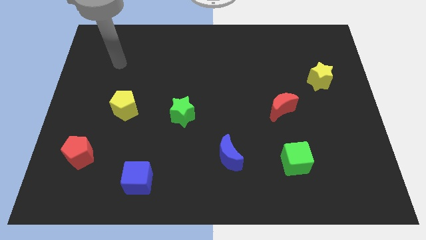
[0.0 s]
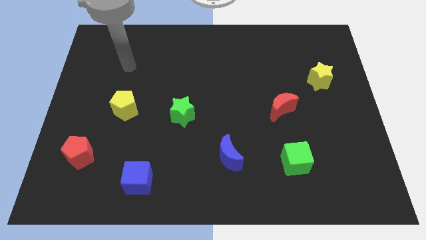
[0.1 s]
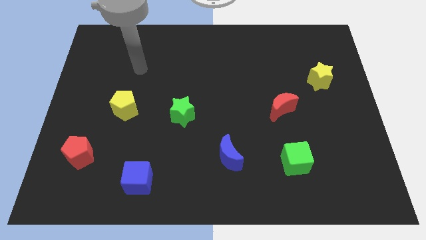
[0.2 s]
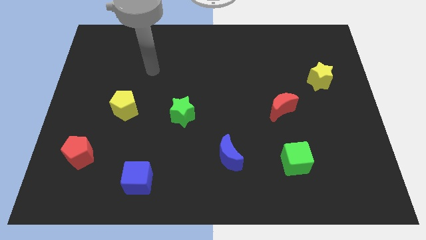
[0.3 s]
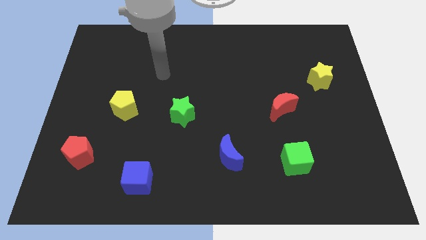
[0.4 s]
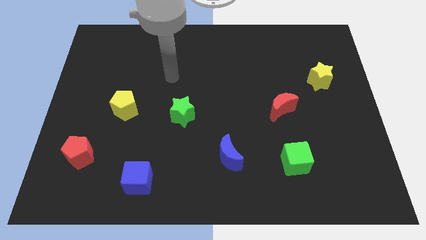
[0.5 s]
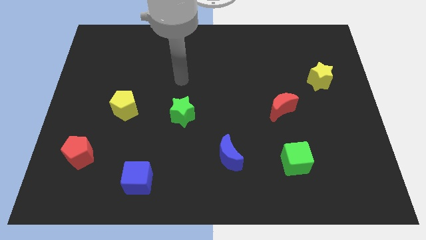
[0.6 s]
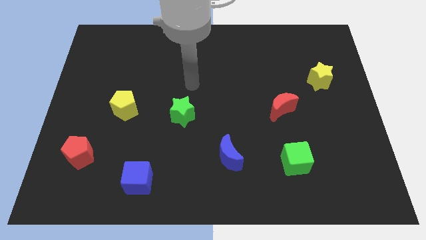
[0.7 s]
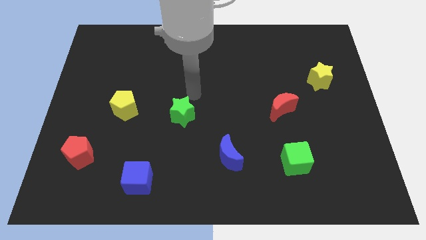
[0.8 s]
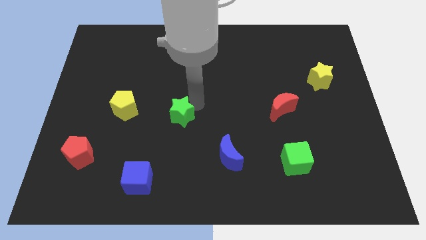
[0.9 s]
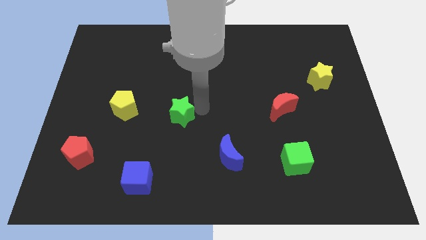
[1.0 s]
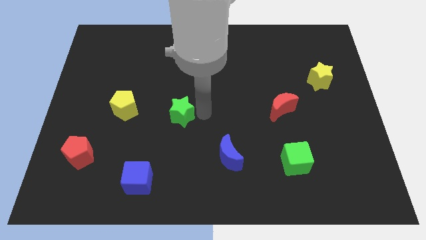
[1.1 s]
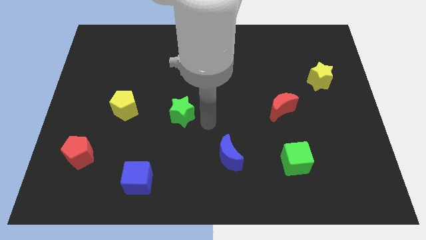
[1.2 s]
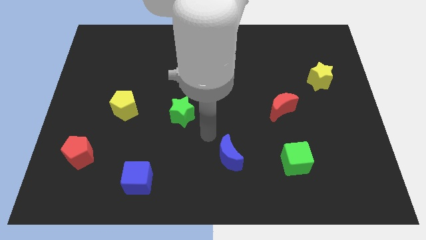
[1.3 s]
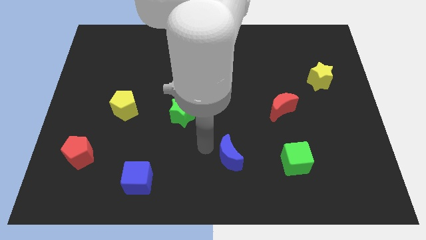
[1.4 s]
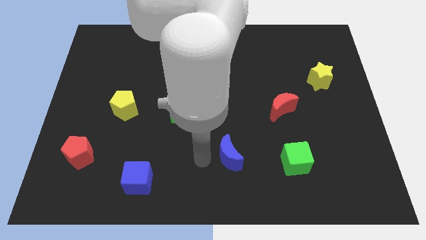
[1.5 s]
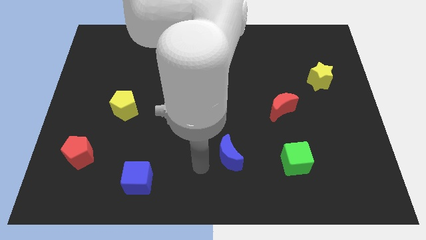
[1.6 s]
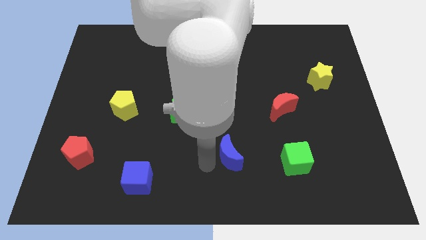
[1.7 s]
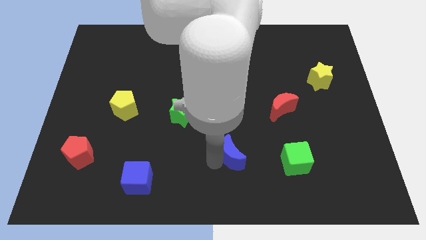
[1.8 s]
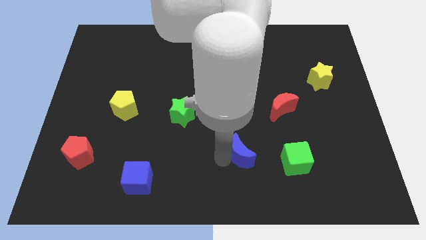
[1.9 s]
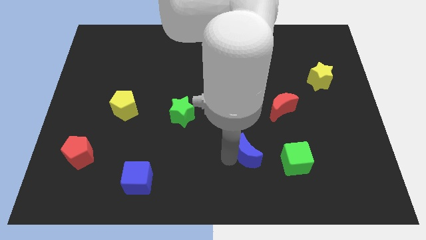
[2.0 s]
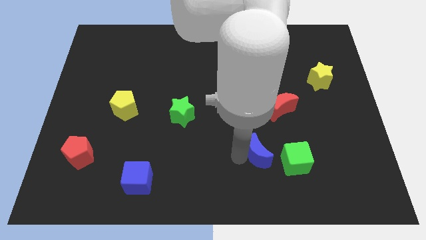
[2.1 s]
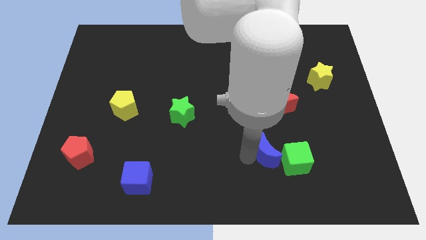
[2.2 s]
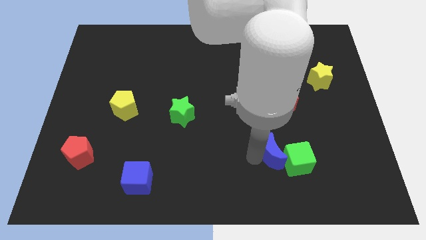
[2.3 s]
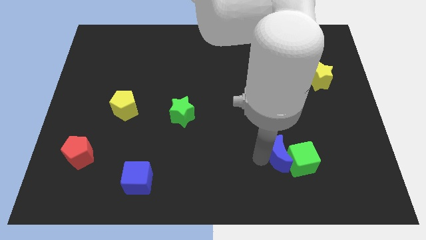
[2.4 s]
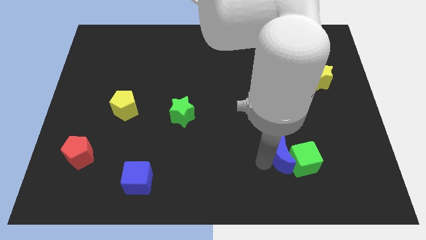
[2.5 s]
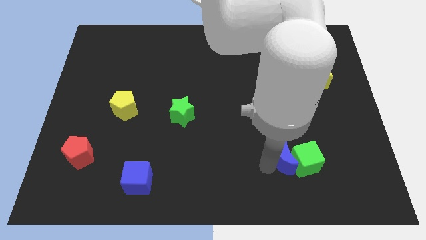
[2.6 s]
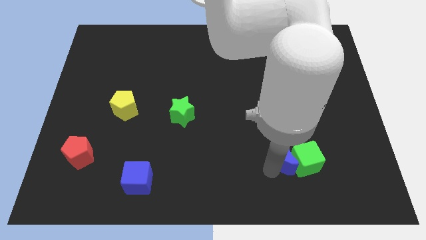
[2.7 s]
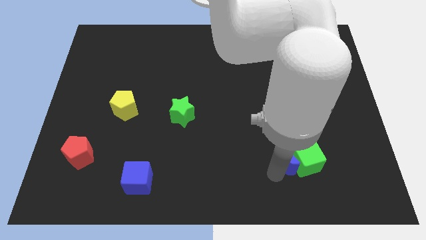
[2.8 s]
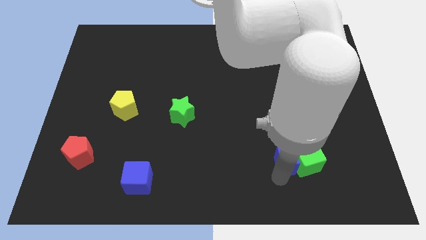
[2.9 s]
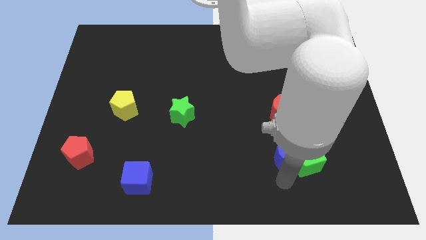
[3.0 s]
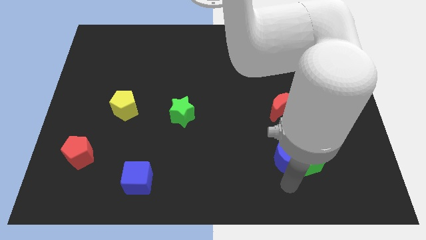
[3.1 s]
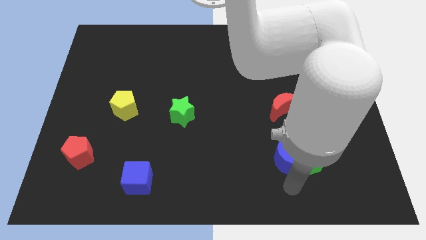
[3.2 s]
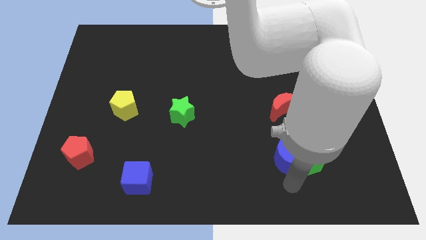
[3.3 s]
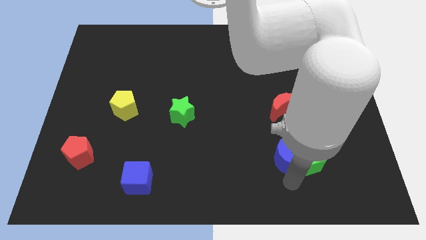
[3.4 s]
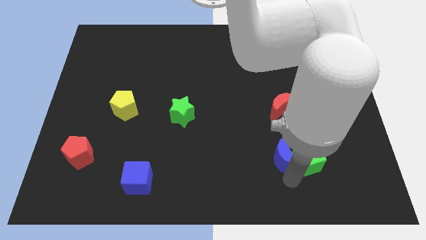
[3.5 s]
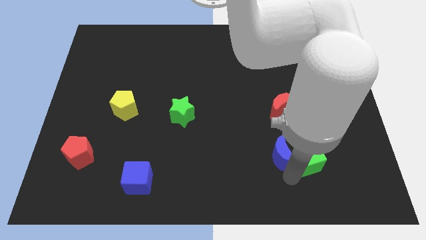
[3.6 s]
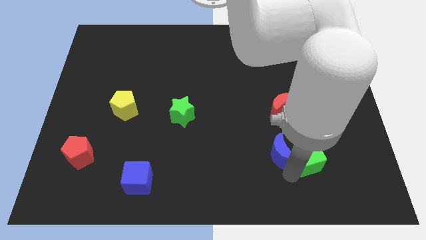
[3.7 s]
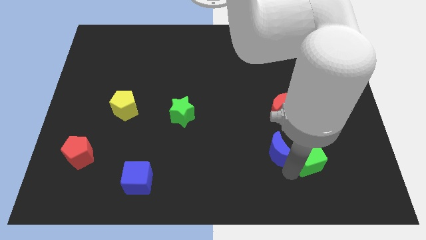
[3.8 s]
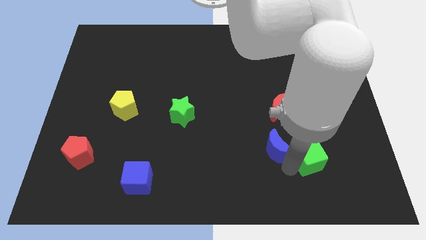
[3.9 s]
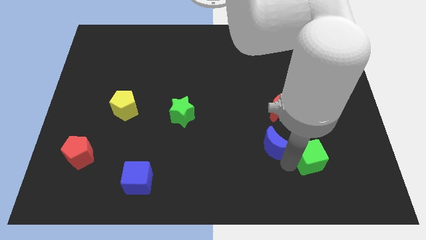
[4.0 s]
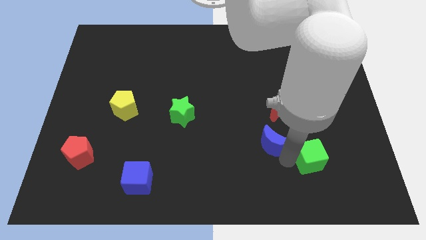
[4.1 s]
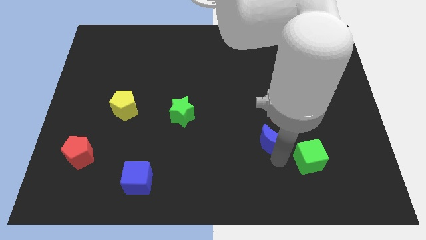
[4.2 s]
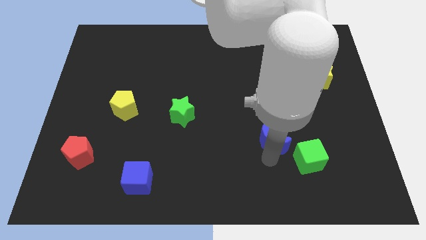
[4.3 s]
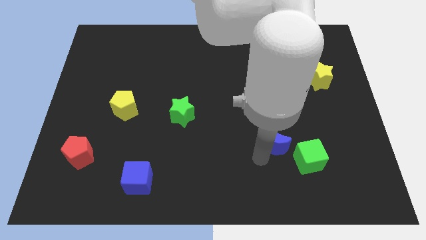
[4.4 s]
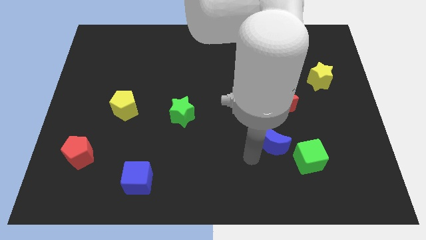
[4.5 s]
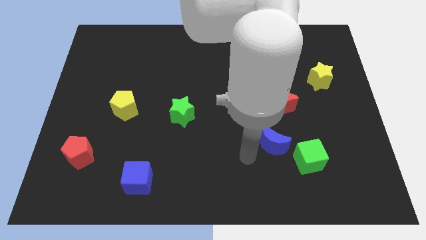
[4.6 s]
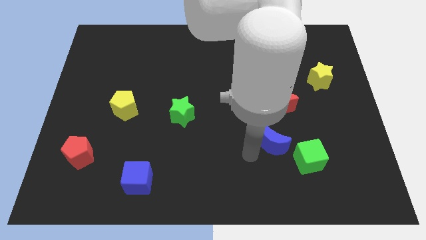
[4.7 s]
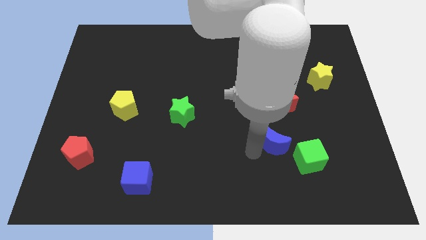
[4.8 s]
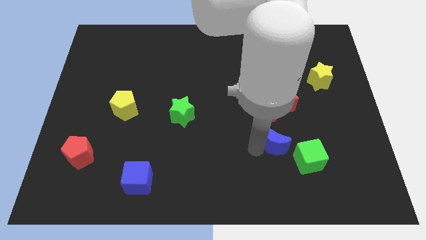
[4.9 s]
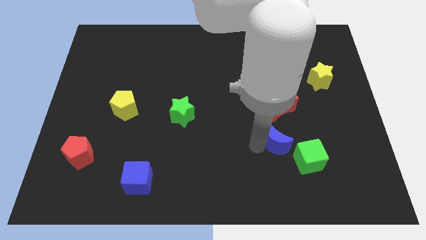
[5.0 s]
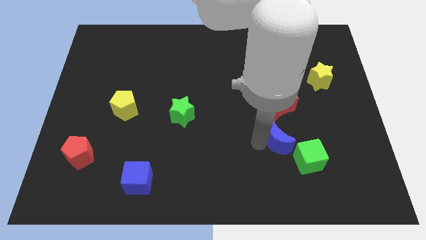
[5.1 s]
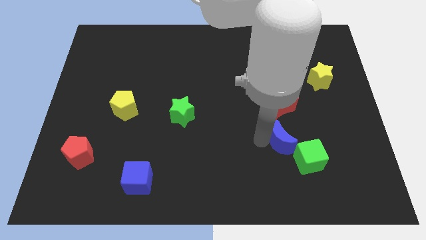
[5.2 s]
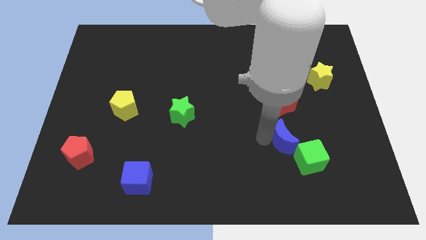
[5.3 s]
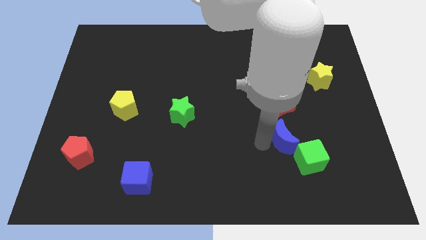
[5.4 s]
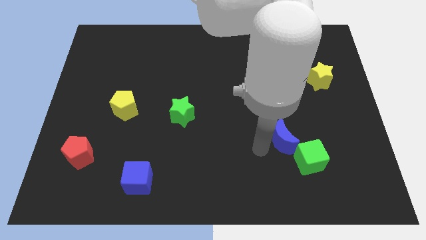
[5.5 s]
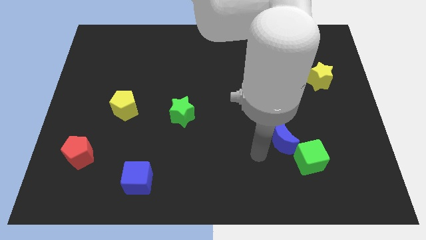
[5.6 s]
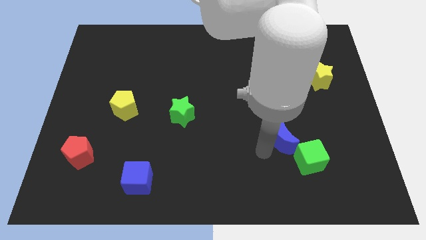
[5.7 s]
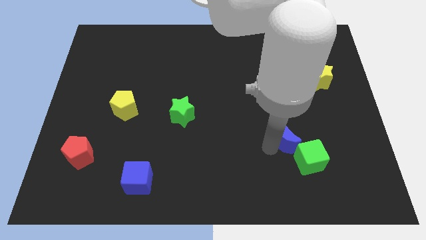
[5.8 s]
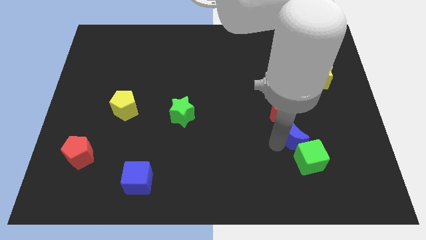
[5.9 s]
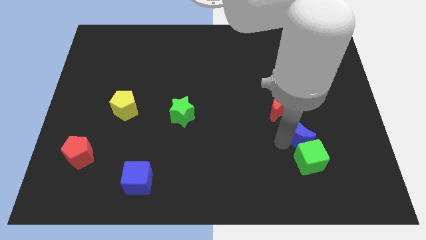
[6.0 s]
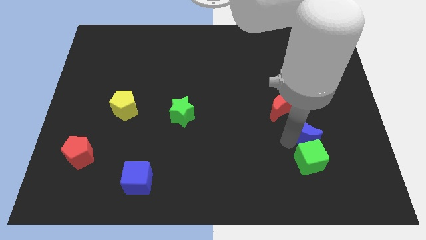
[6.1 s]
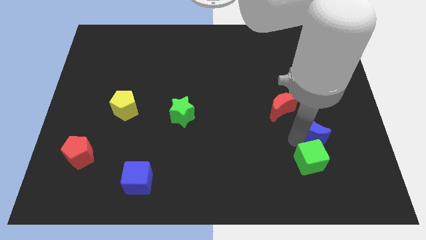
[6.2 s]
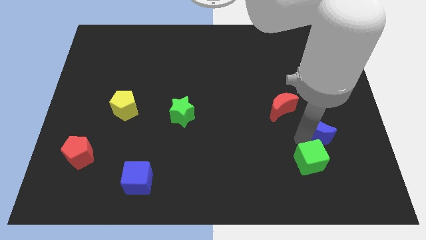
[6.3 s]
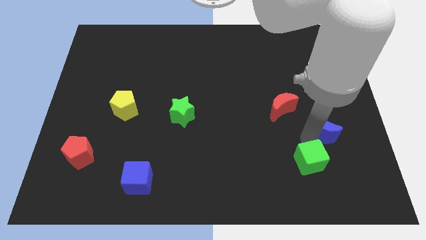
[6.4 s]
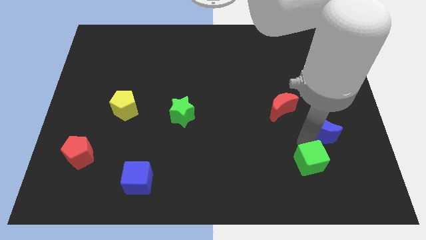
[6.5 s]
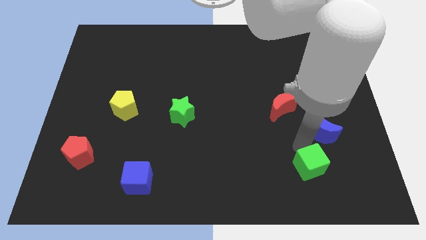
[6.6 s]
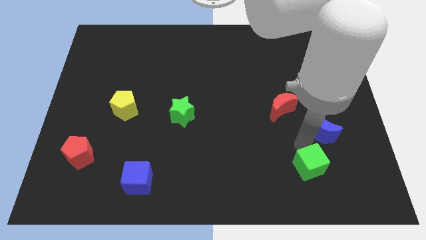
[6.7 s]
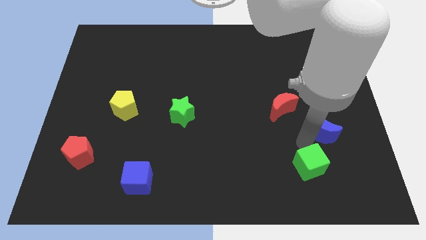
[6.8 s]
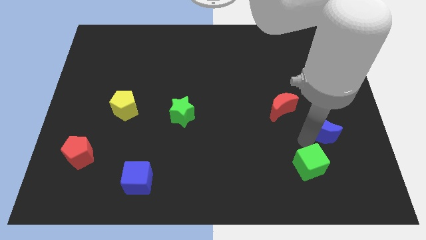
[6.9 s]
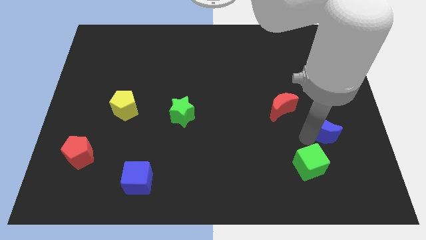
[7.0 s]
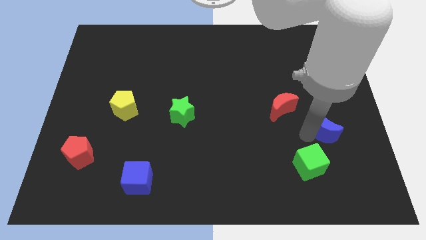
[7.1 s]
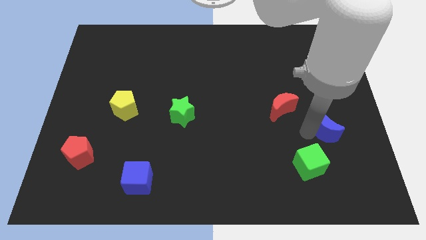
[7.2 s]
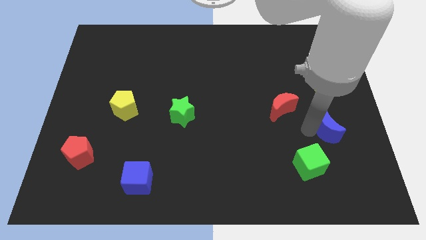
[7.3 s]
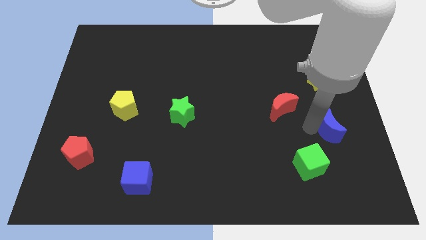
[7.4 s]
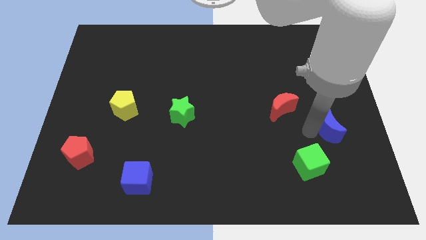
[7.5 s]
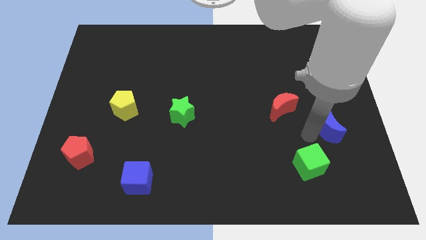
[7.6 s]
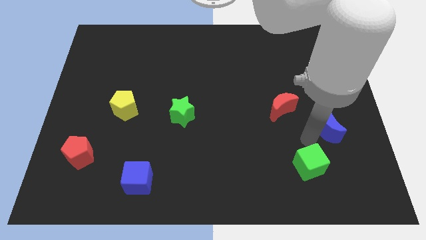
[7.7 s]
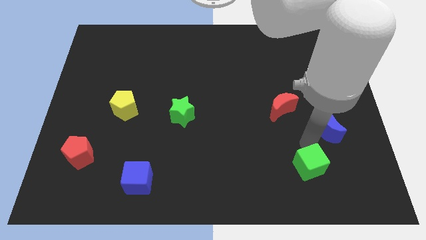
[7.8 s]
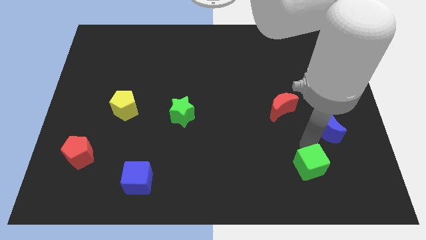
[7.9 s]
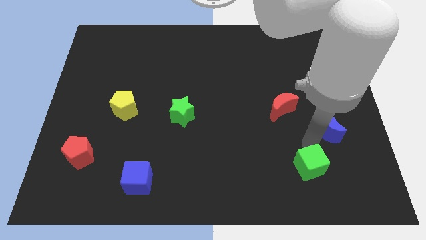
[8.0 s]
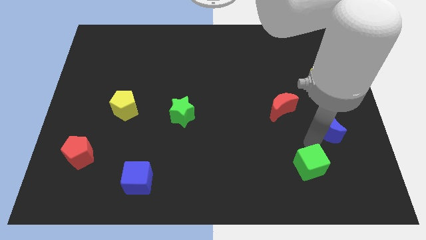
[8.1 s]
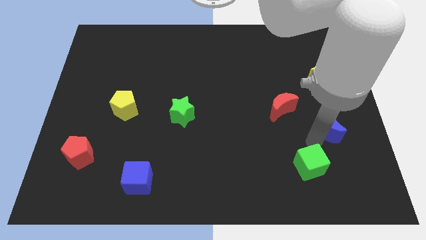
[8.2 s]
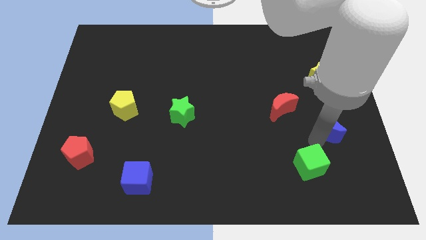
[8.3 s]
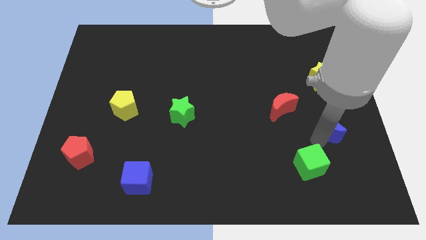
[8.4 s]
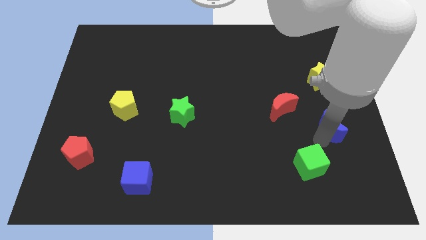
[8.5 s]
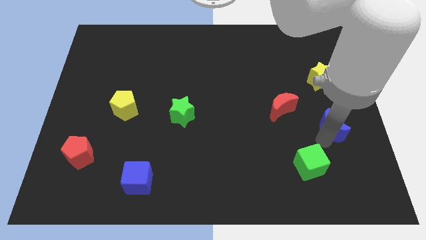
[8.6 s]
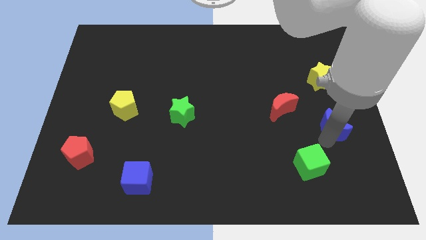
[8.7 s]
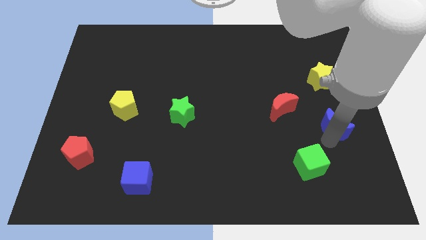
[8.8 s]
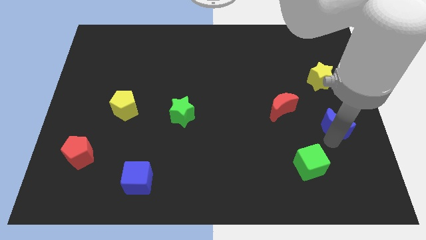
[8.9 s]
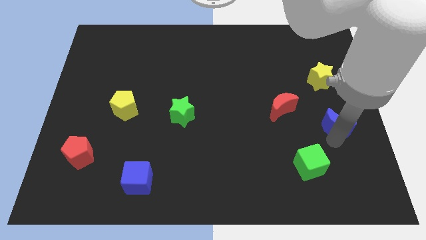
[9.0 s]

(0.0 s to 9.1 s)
put the blue moon to the right side of the board
